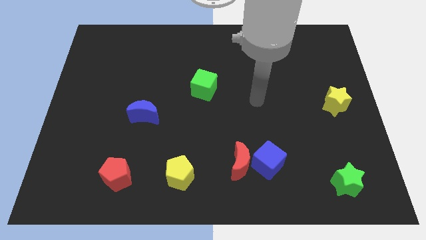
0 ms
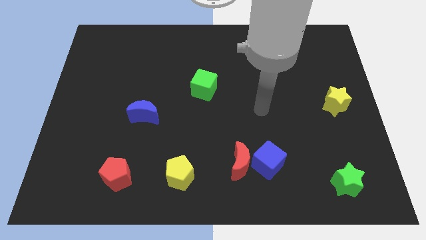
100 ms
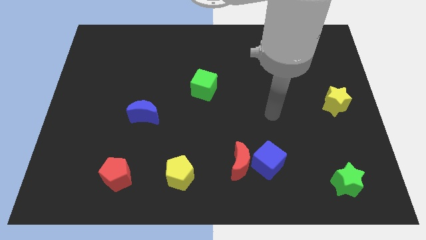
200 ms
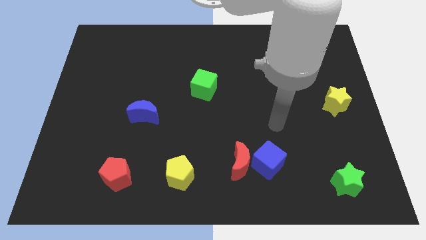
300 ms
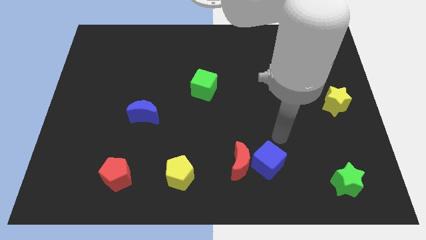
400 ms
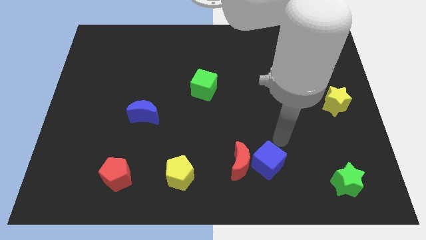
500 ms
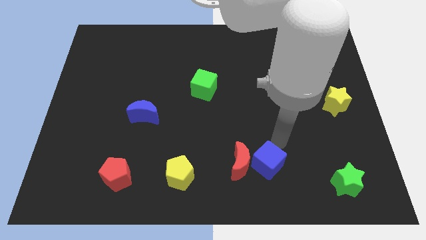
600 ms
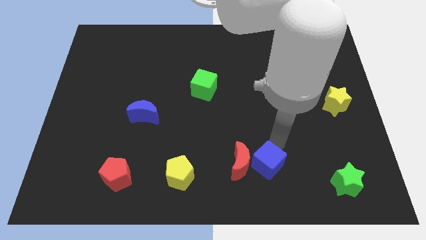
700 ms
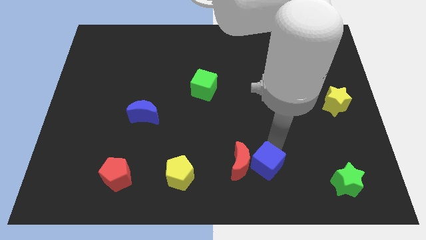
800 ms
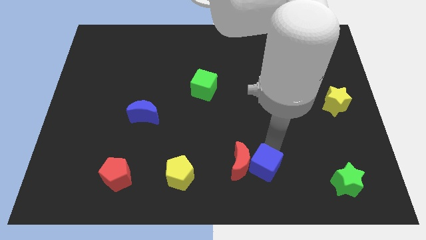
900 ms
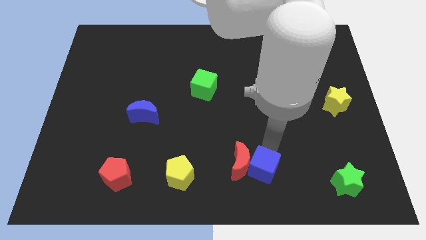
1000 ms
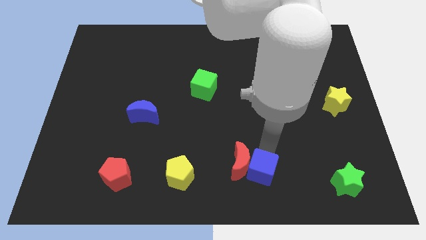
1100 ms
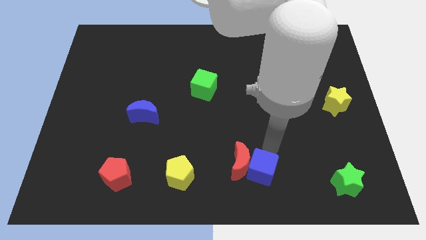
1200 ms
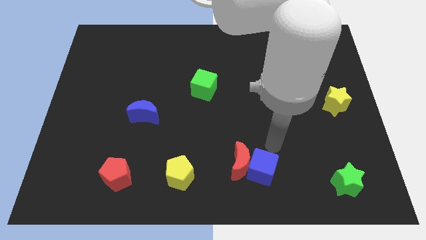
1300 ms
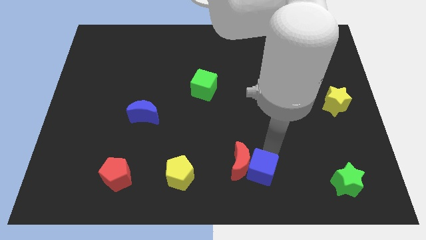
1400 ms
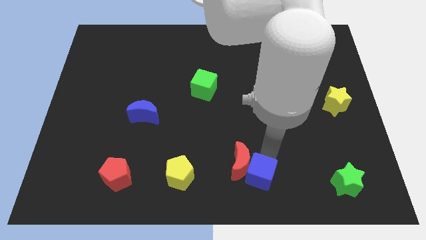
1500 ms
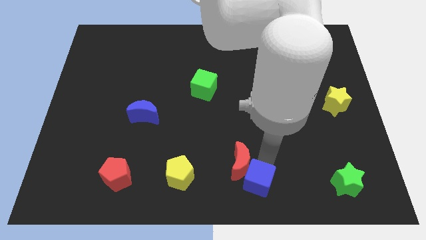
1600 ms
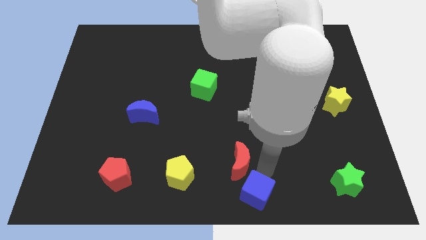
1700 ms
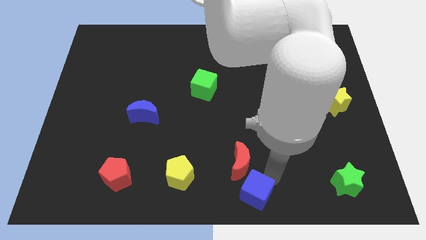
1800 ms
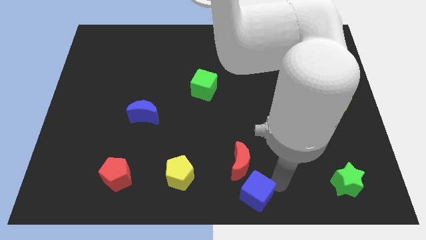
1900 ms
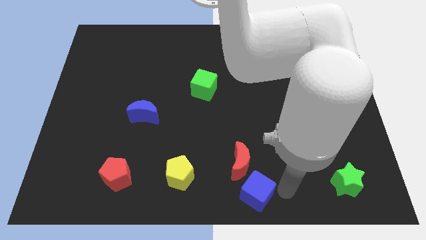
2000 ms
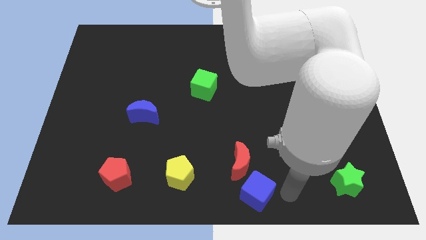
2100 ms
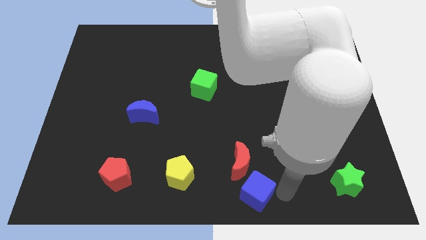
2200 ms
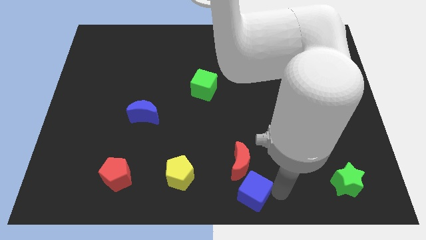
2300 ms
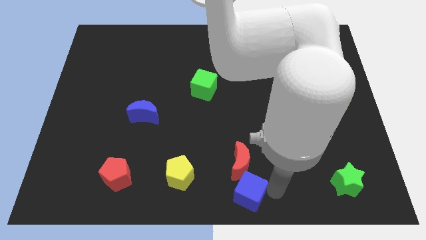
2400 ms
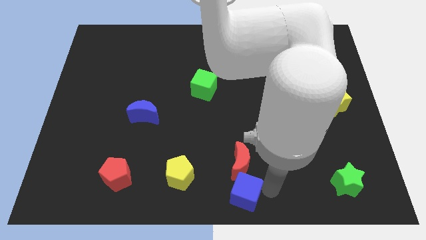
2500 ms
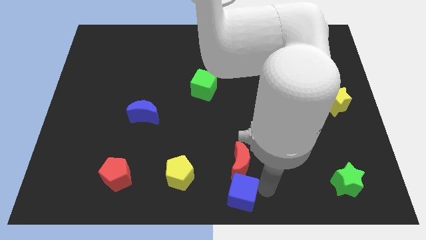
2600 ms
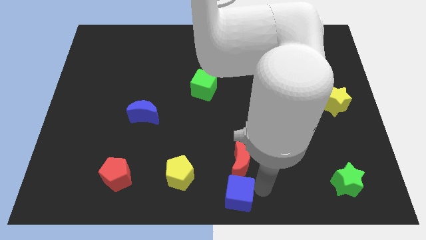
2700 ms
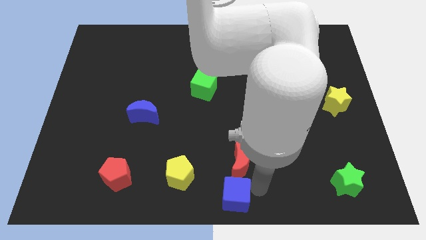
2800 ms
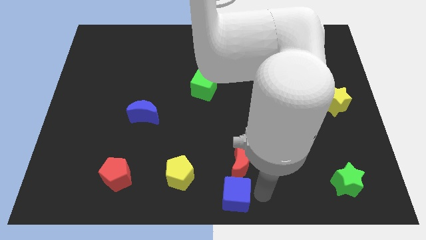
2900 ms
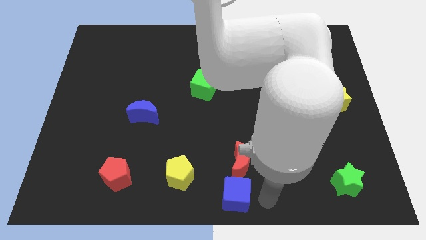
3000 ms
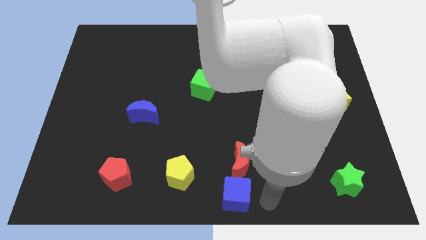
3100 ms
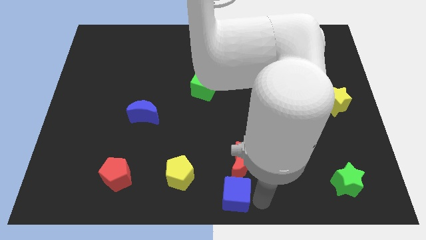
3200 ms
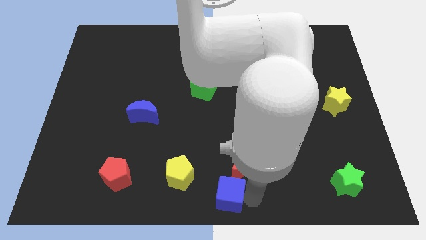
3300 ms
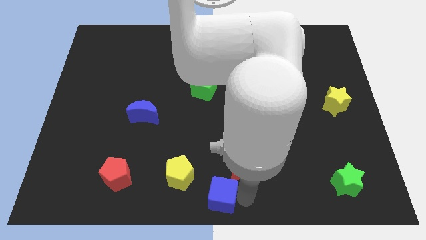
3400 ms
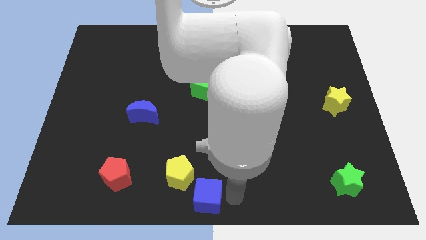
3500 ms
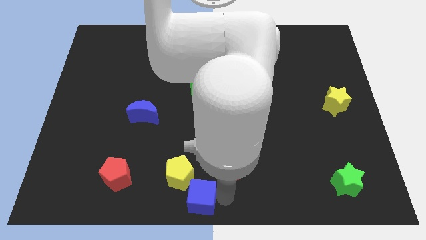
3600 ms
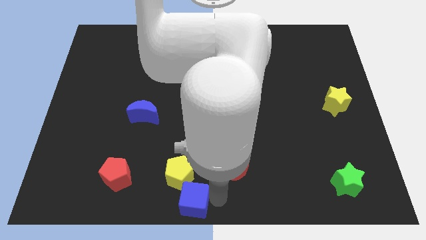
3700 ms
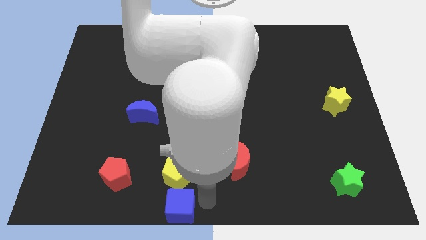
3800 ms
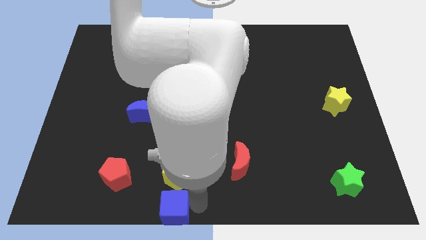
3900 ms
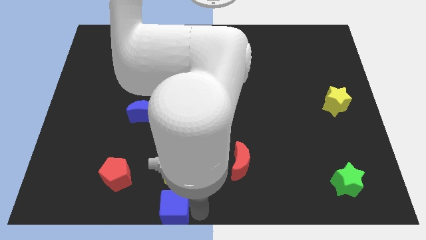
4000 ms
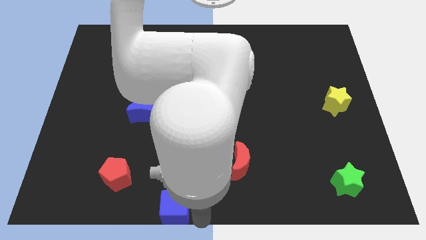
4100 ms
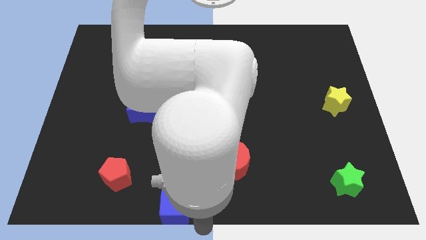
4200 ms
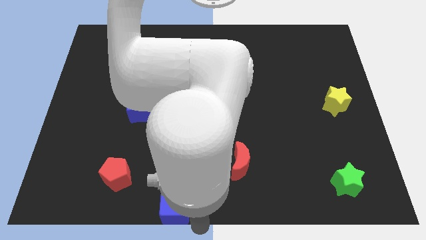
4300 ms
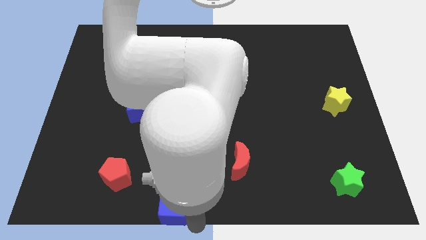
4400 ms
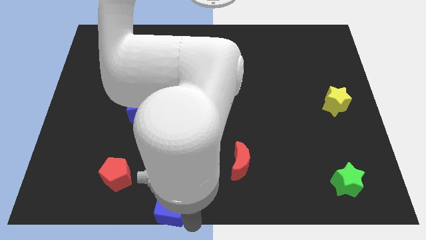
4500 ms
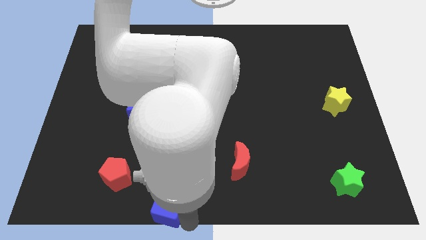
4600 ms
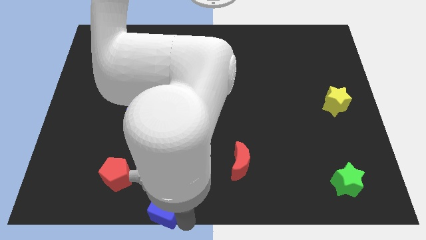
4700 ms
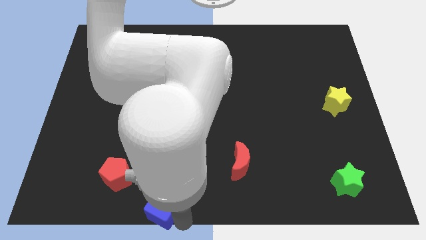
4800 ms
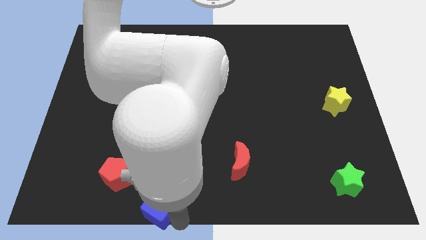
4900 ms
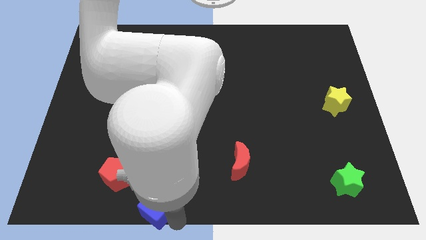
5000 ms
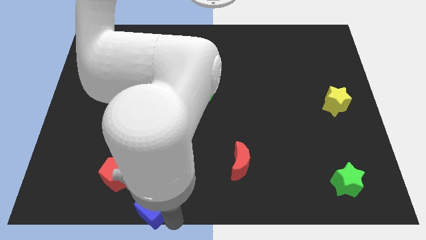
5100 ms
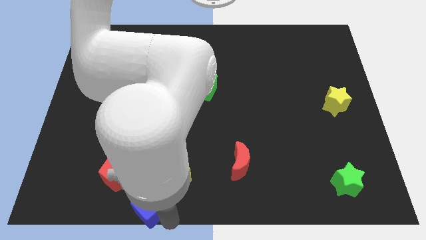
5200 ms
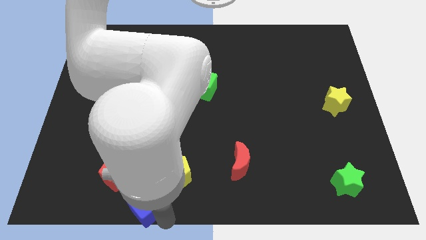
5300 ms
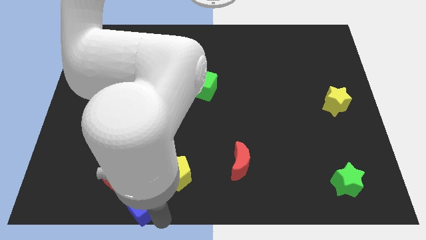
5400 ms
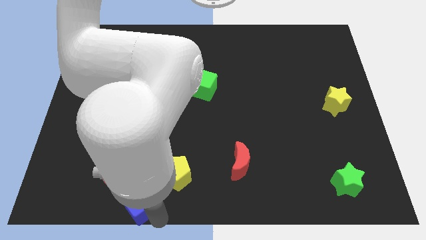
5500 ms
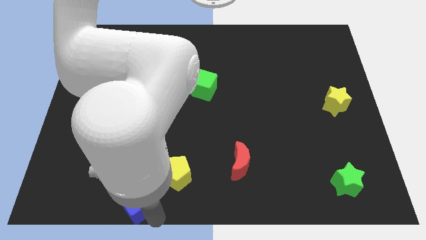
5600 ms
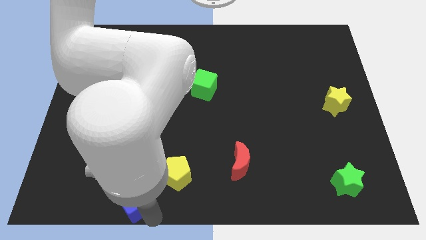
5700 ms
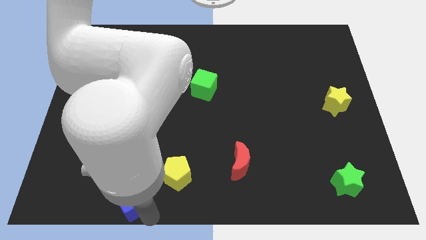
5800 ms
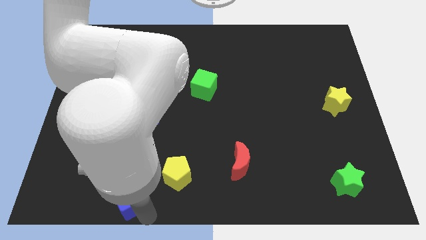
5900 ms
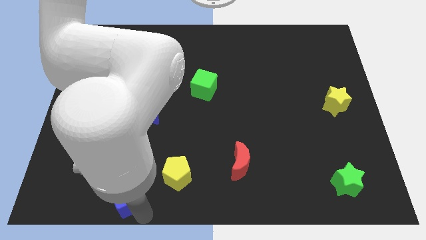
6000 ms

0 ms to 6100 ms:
put the blue cube next to the red pentagon

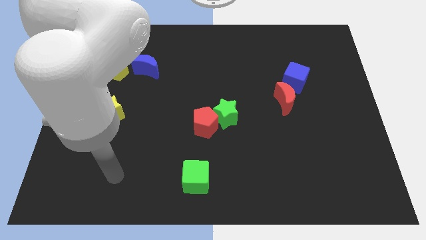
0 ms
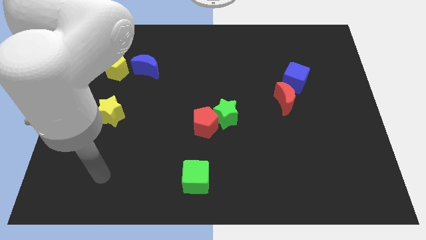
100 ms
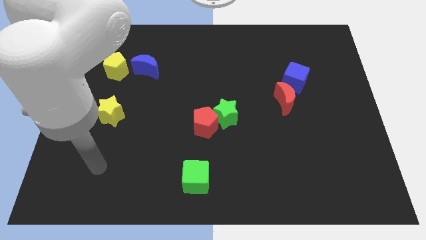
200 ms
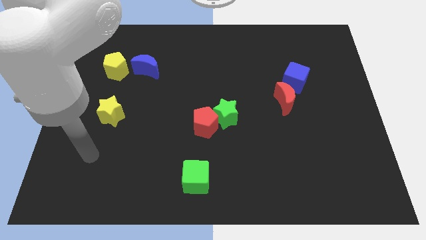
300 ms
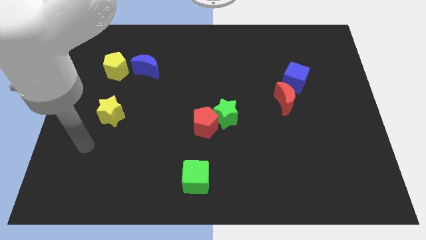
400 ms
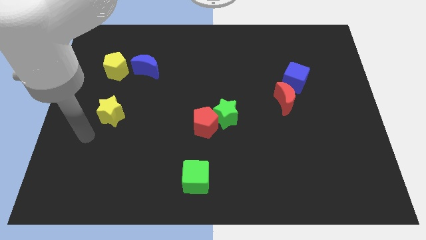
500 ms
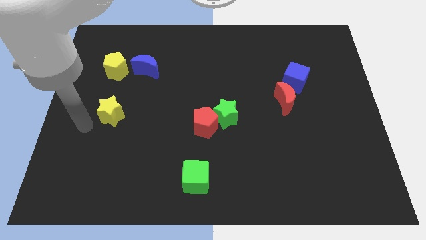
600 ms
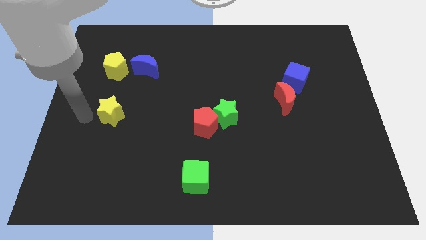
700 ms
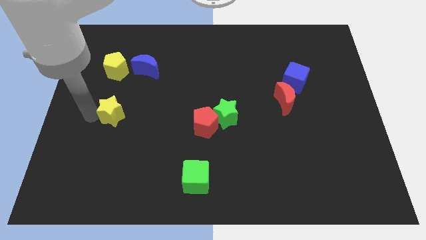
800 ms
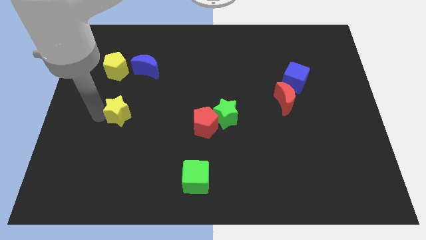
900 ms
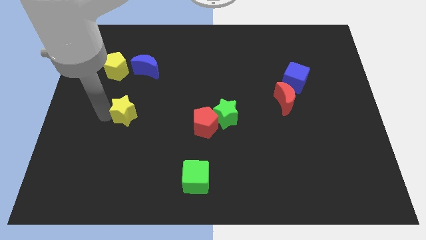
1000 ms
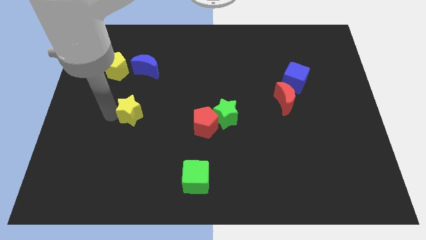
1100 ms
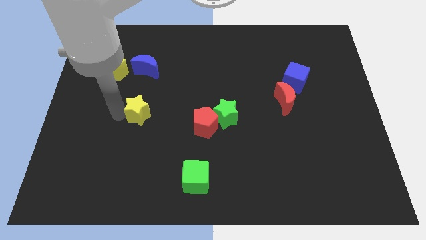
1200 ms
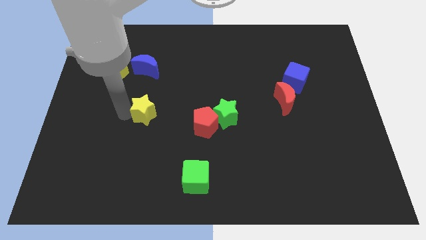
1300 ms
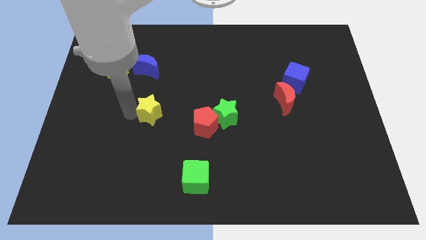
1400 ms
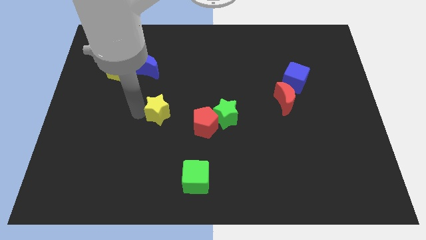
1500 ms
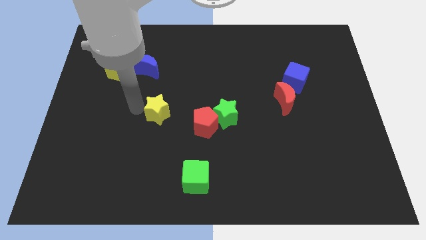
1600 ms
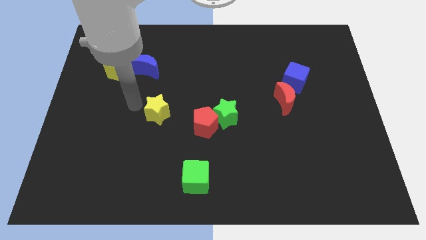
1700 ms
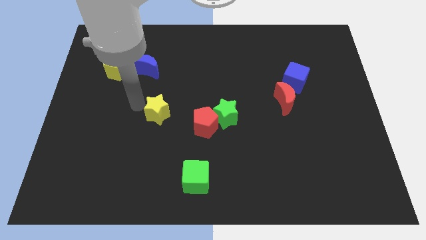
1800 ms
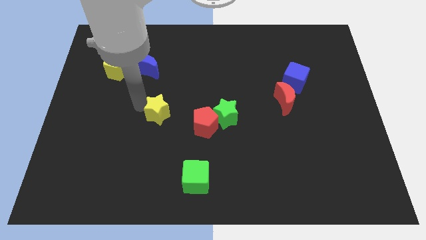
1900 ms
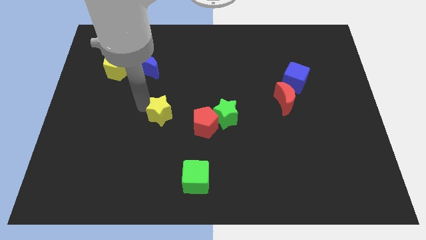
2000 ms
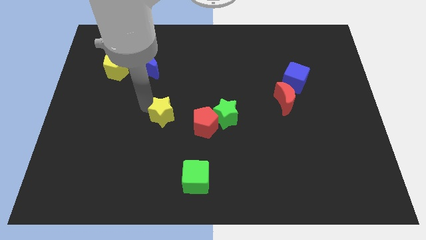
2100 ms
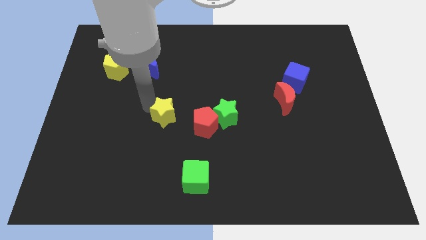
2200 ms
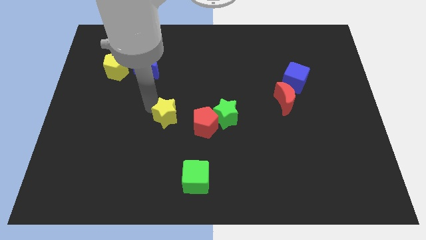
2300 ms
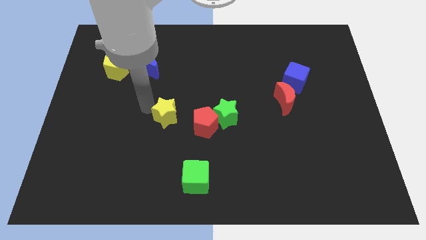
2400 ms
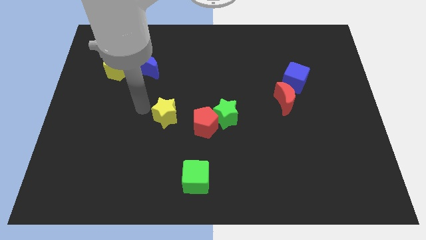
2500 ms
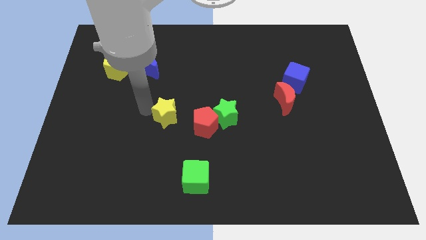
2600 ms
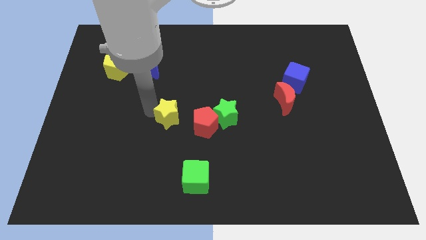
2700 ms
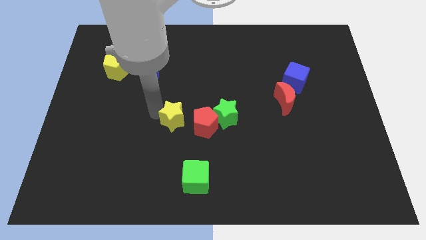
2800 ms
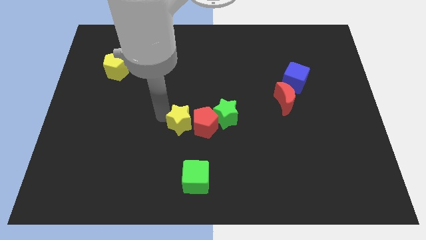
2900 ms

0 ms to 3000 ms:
slide the yellow star close to the red pentagon
